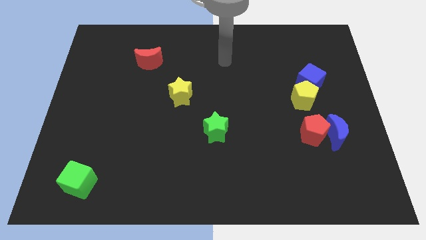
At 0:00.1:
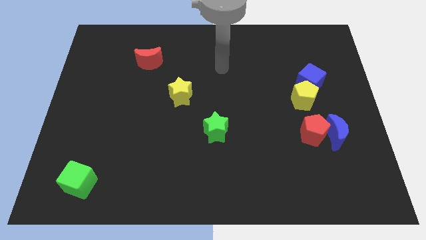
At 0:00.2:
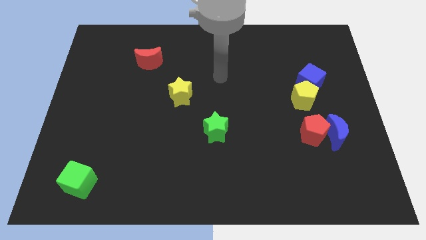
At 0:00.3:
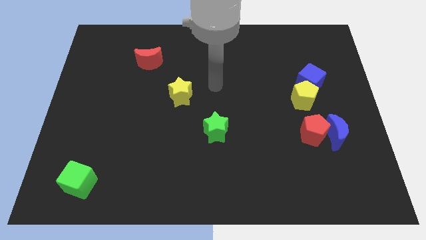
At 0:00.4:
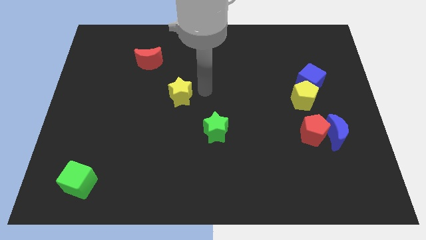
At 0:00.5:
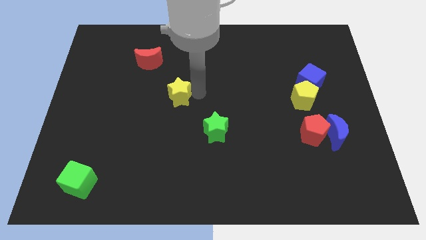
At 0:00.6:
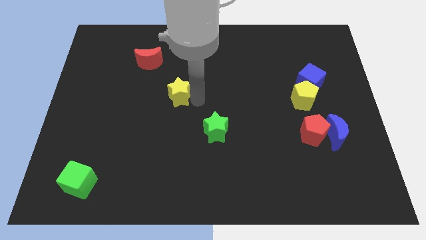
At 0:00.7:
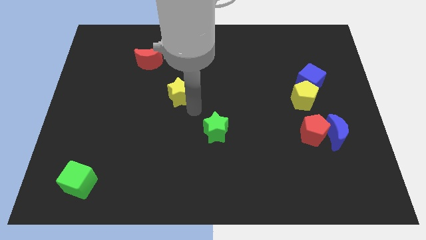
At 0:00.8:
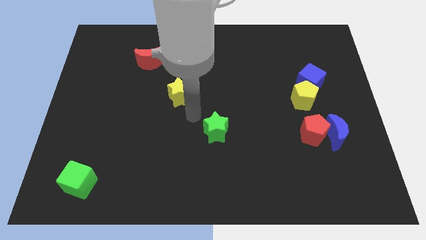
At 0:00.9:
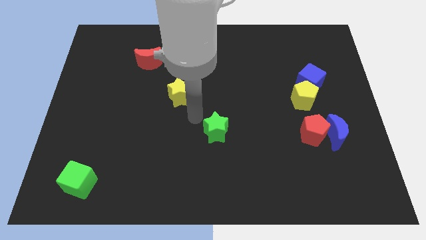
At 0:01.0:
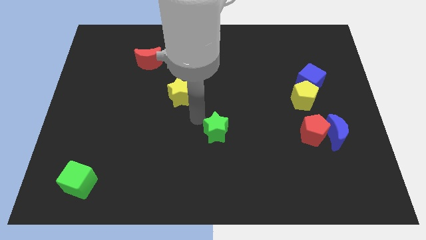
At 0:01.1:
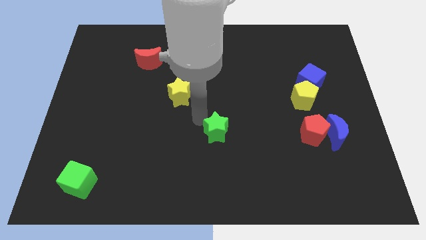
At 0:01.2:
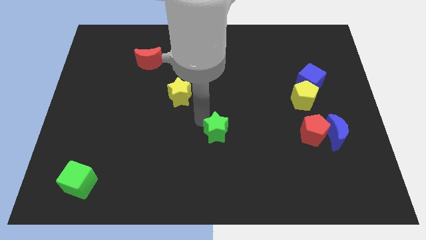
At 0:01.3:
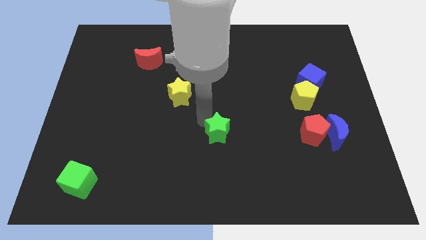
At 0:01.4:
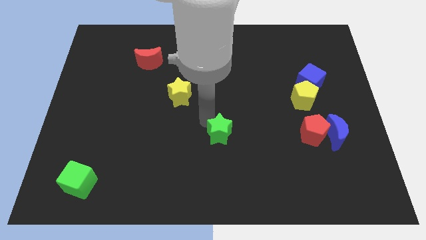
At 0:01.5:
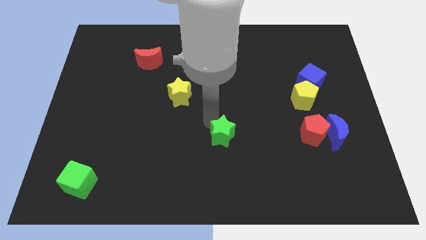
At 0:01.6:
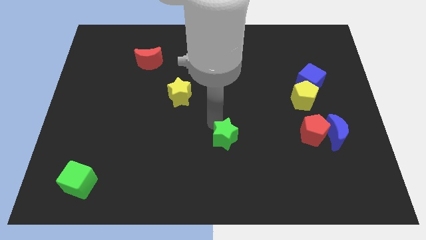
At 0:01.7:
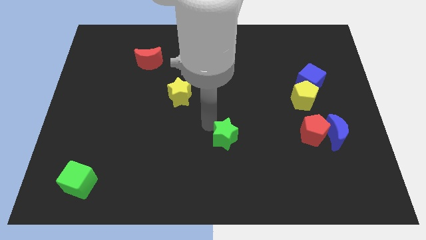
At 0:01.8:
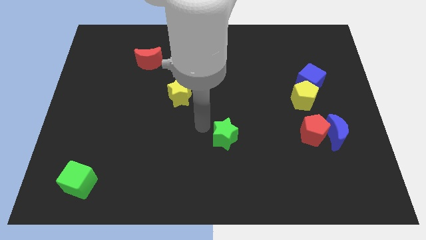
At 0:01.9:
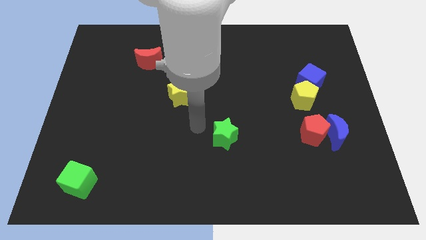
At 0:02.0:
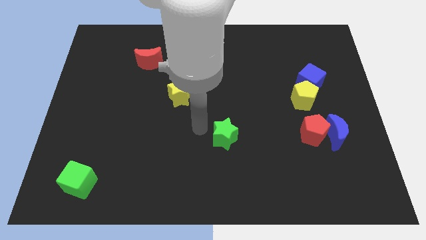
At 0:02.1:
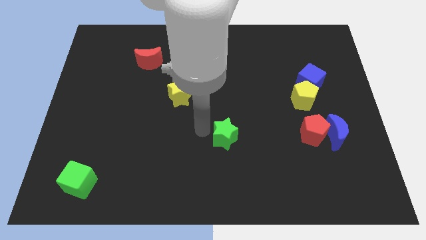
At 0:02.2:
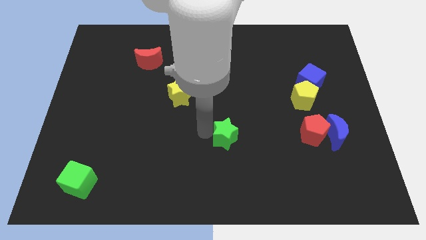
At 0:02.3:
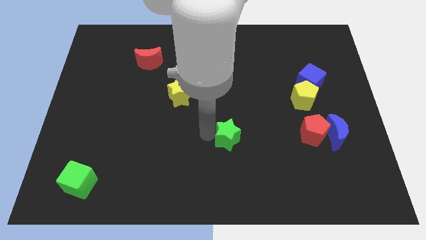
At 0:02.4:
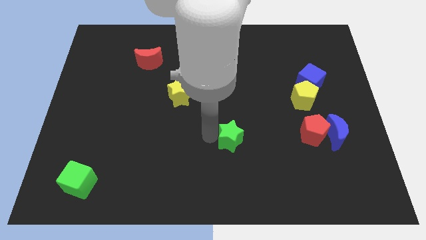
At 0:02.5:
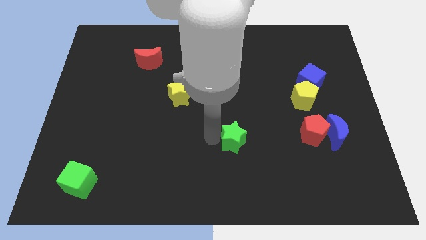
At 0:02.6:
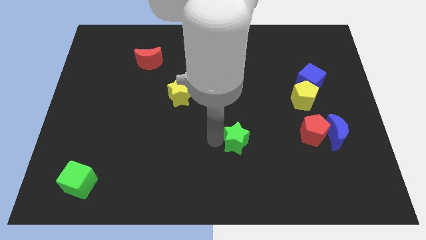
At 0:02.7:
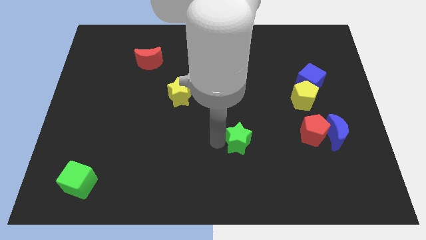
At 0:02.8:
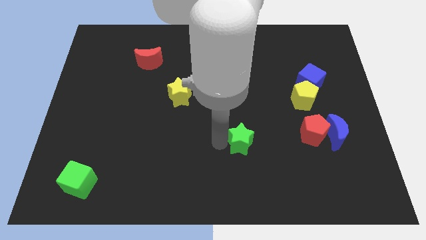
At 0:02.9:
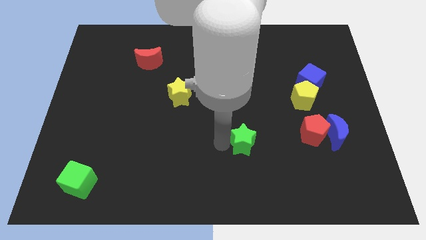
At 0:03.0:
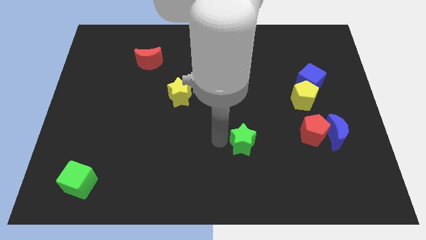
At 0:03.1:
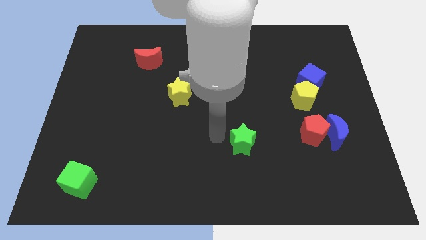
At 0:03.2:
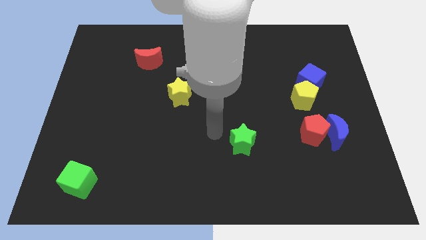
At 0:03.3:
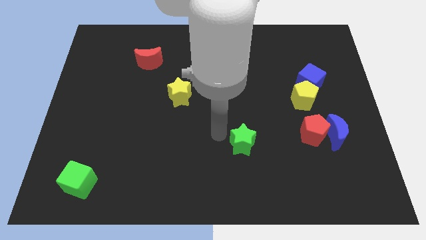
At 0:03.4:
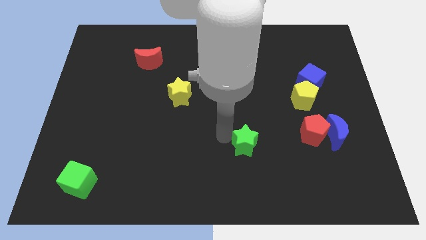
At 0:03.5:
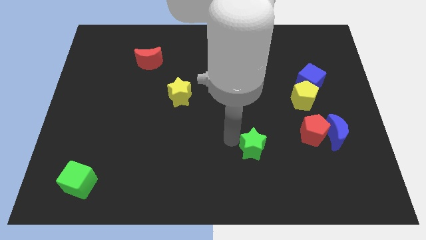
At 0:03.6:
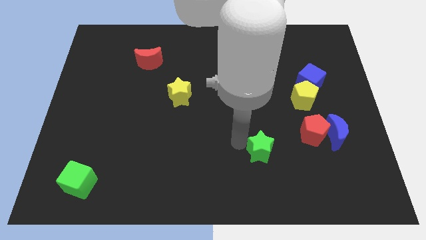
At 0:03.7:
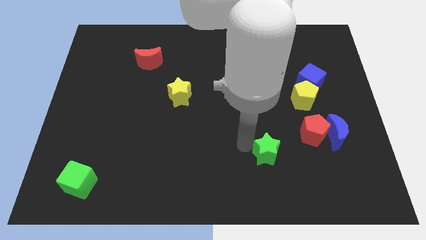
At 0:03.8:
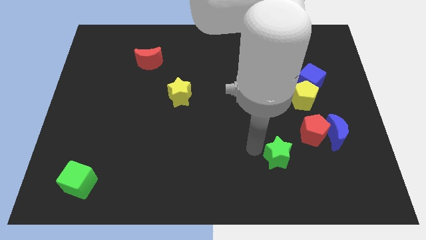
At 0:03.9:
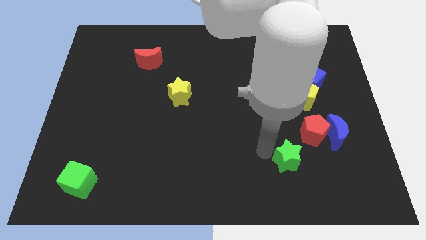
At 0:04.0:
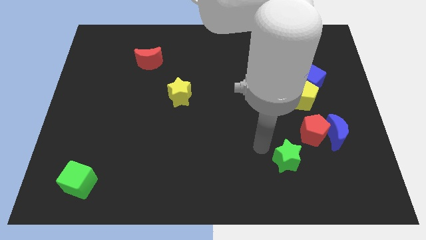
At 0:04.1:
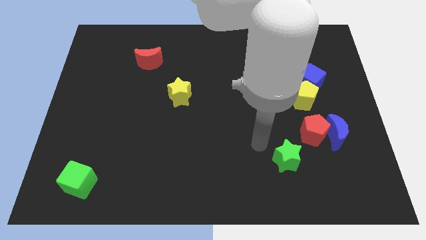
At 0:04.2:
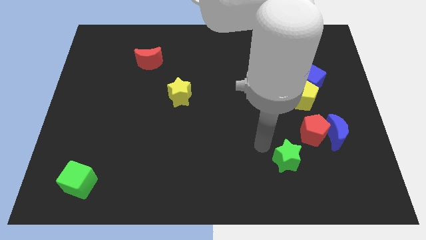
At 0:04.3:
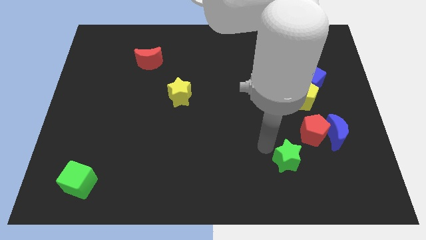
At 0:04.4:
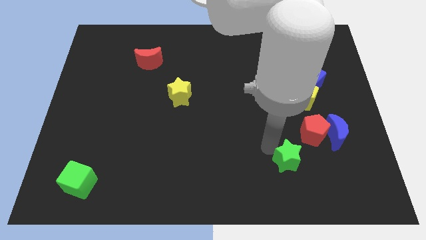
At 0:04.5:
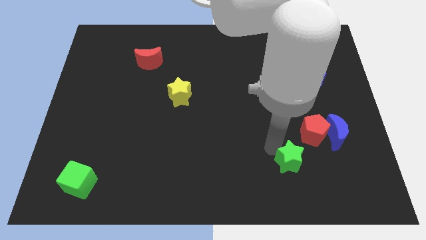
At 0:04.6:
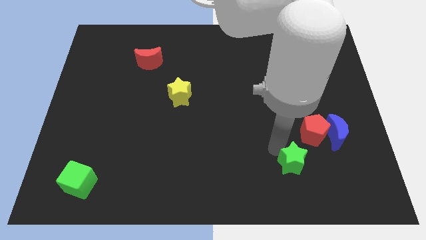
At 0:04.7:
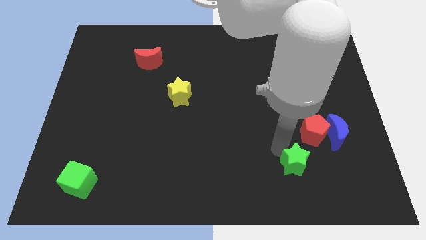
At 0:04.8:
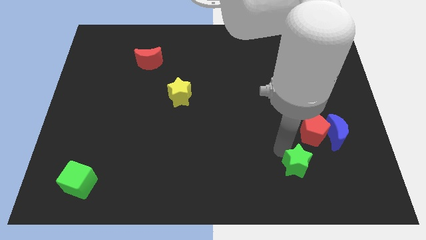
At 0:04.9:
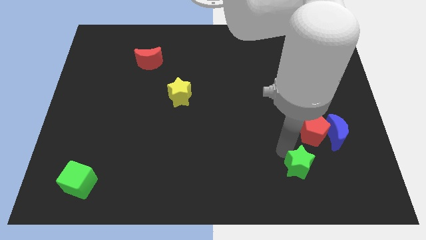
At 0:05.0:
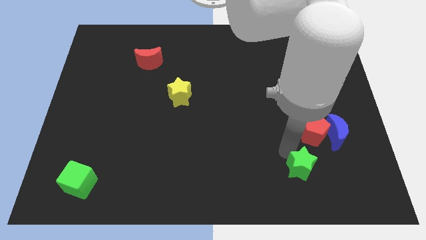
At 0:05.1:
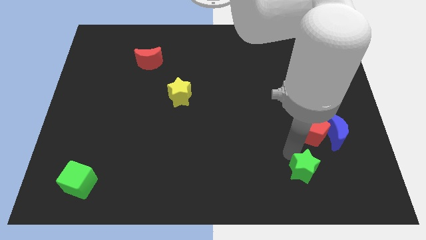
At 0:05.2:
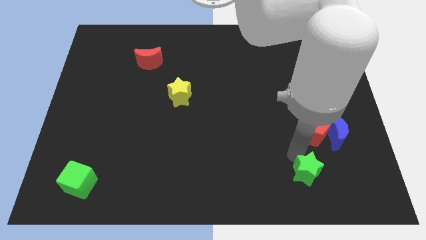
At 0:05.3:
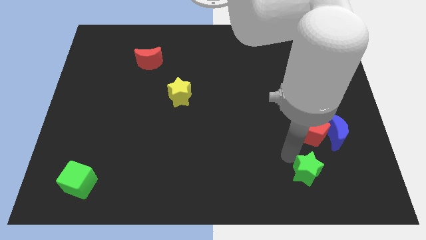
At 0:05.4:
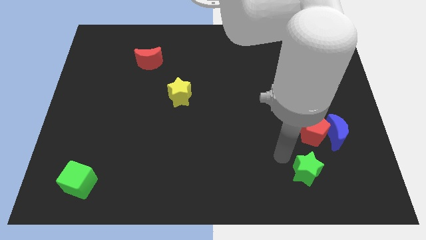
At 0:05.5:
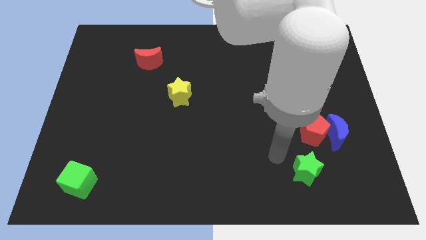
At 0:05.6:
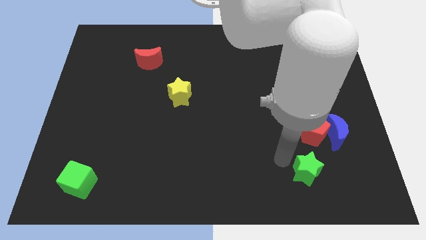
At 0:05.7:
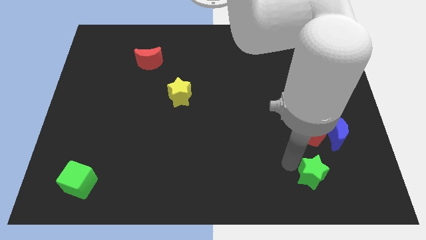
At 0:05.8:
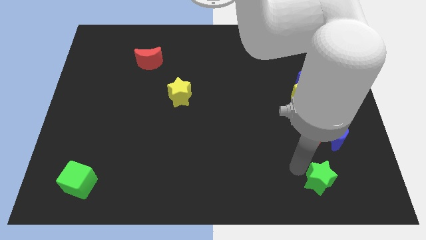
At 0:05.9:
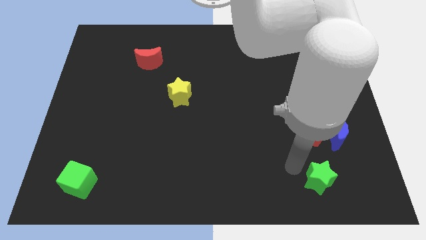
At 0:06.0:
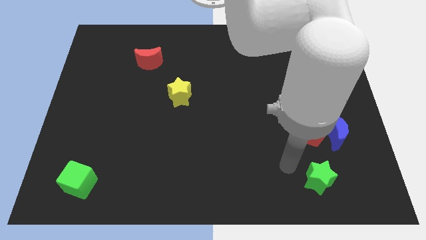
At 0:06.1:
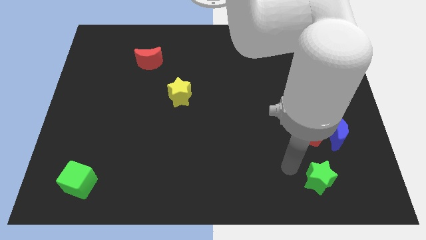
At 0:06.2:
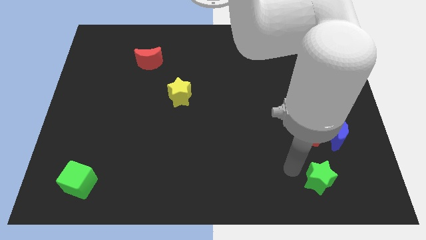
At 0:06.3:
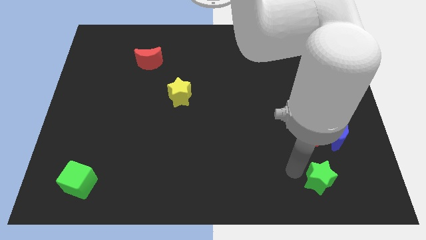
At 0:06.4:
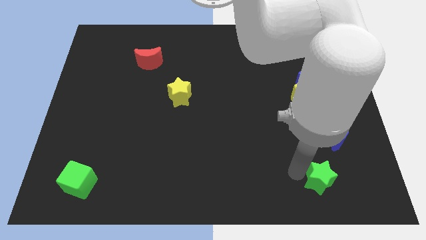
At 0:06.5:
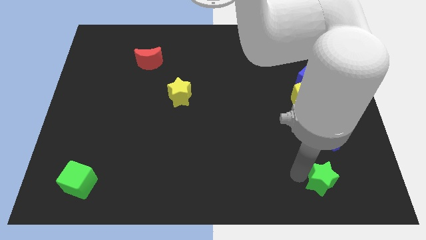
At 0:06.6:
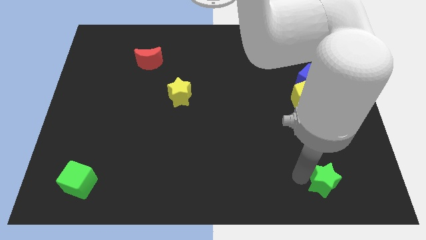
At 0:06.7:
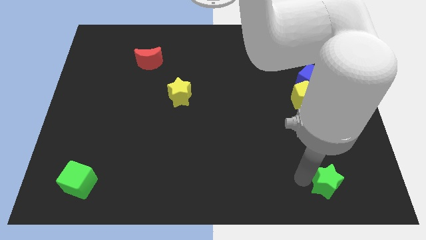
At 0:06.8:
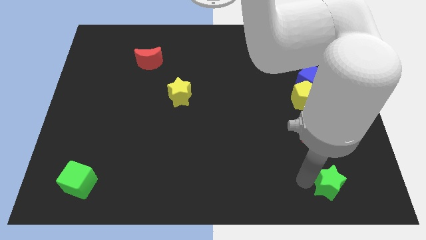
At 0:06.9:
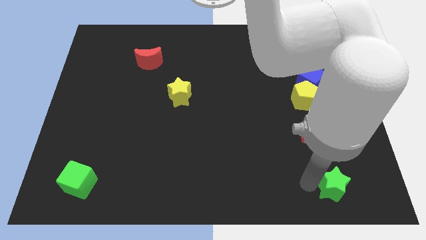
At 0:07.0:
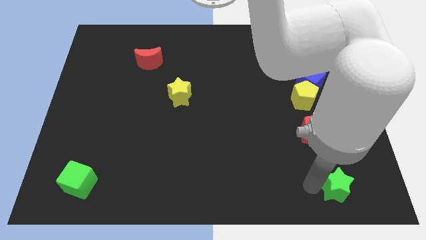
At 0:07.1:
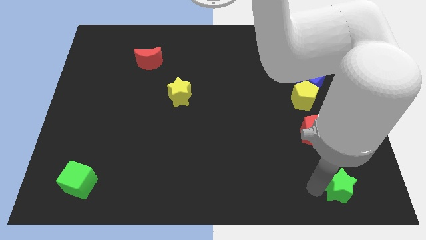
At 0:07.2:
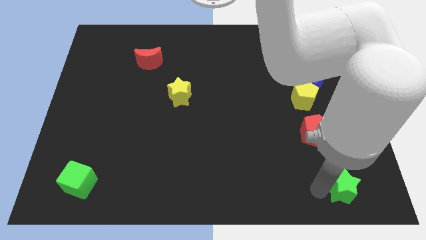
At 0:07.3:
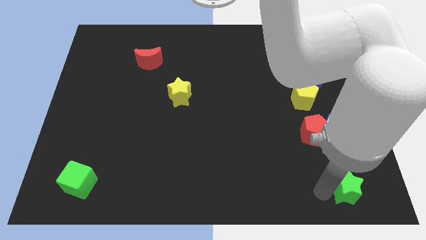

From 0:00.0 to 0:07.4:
move the green star to the bottom right corner
